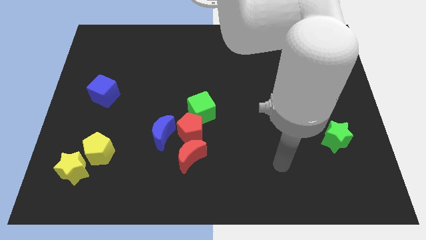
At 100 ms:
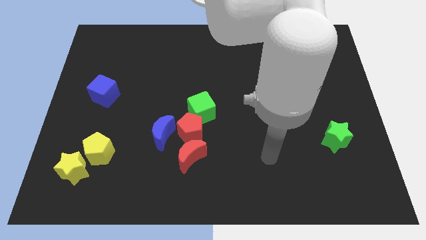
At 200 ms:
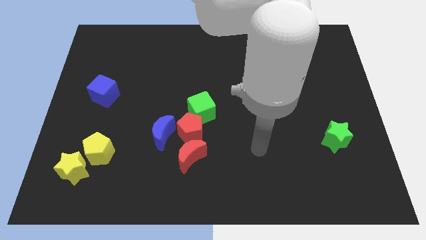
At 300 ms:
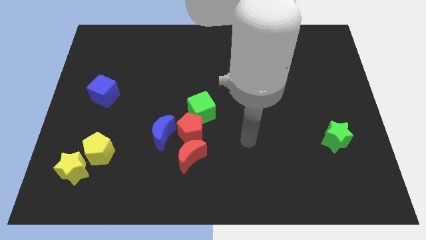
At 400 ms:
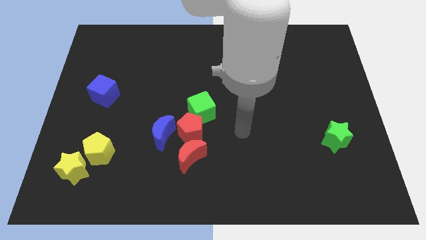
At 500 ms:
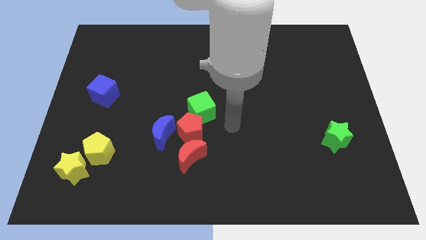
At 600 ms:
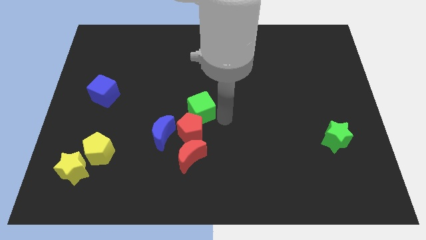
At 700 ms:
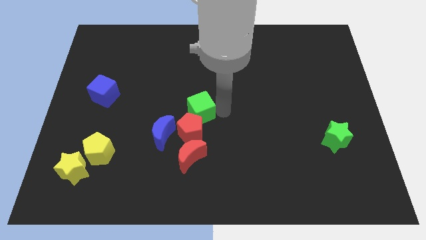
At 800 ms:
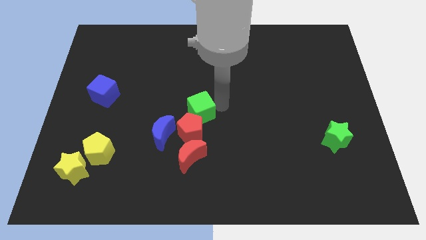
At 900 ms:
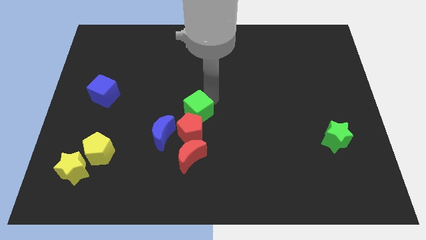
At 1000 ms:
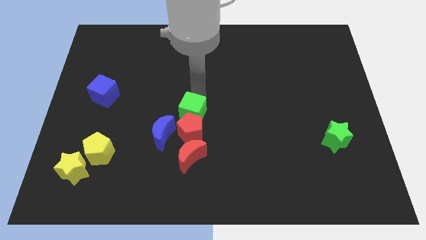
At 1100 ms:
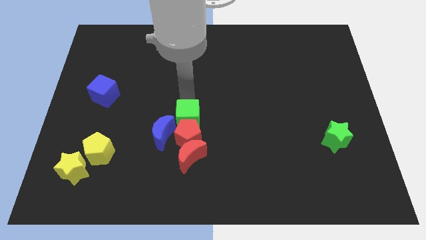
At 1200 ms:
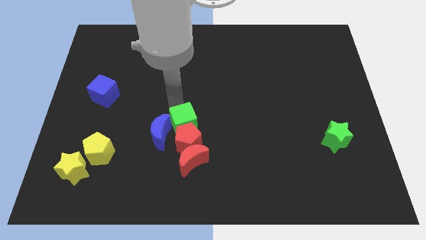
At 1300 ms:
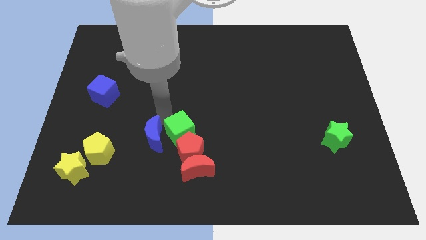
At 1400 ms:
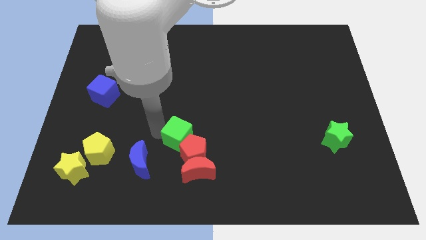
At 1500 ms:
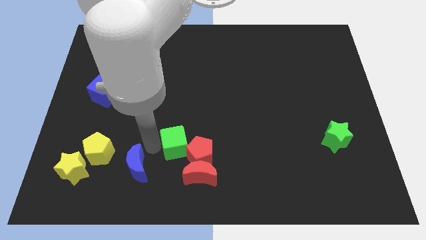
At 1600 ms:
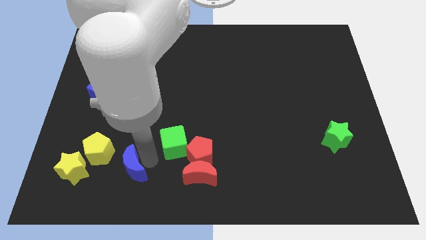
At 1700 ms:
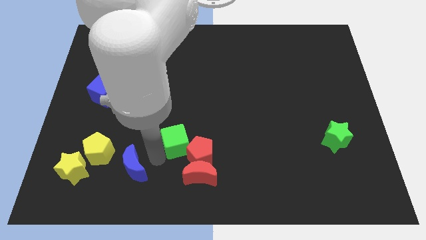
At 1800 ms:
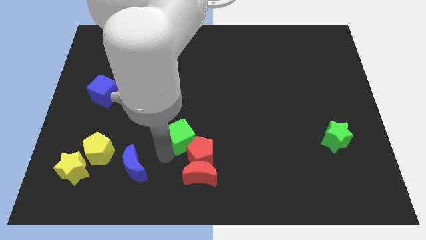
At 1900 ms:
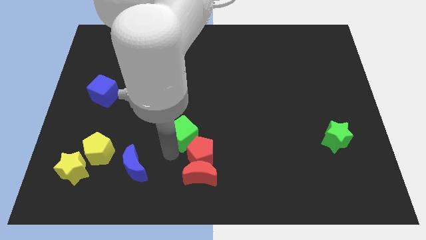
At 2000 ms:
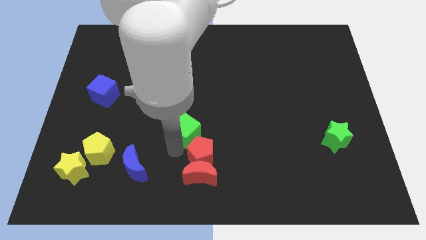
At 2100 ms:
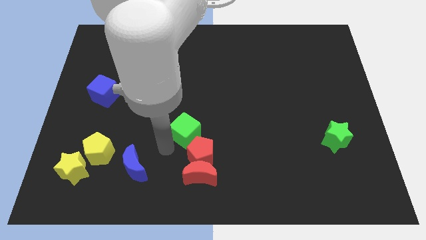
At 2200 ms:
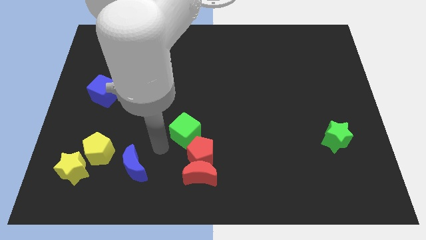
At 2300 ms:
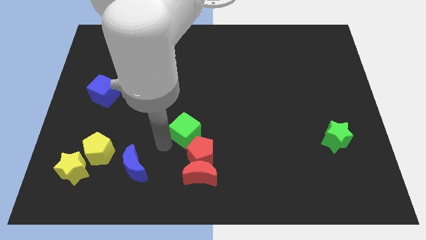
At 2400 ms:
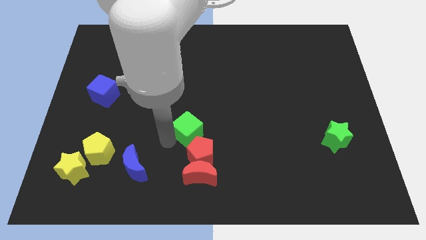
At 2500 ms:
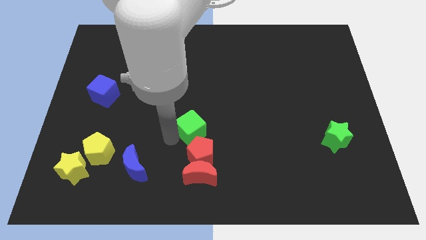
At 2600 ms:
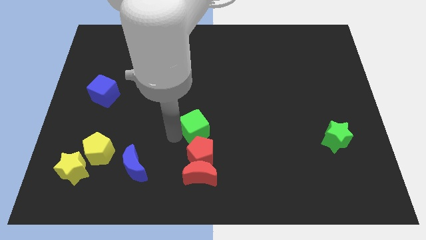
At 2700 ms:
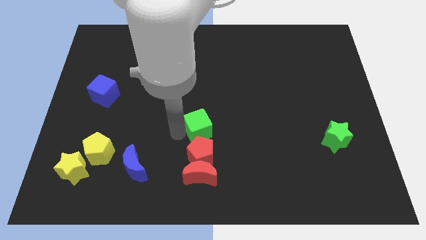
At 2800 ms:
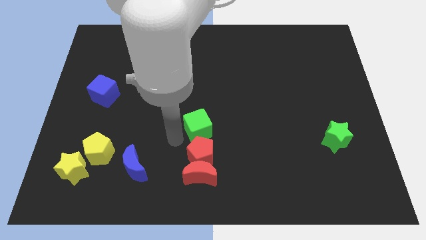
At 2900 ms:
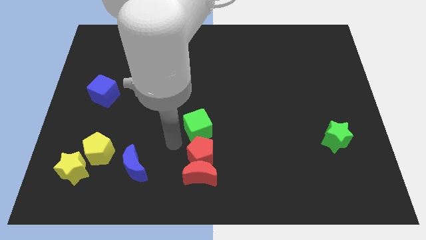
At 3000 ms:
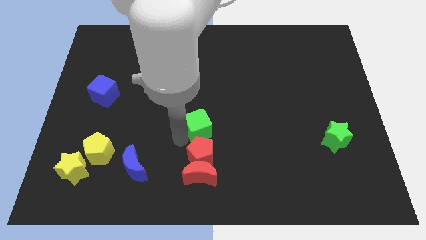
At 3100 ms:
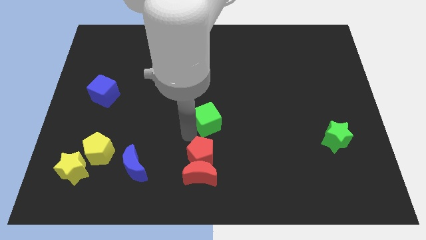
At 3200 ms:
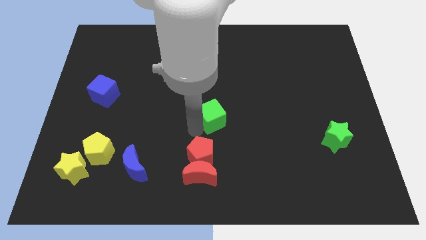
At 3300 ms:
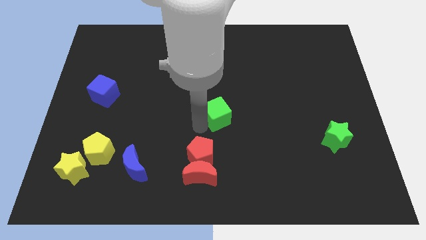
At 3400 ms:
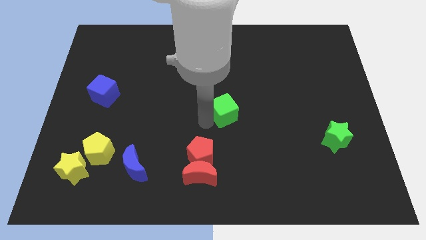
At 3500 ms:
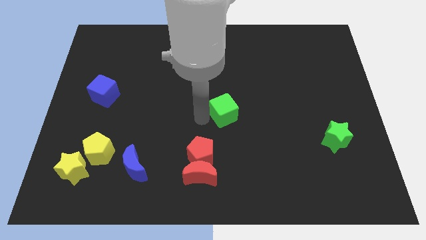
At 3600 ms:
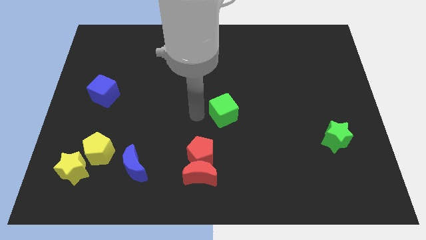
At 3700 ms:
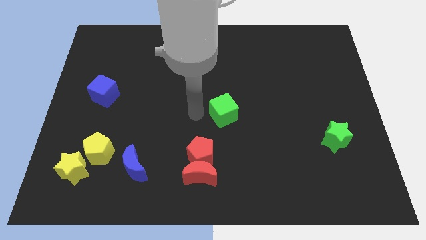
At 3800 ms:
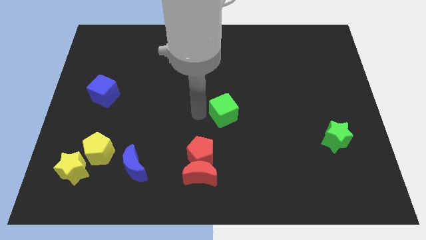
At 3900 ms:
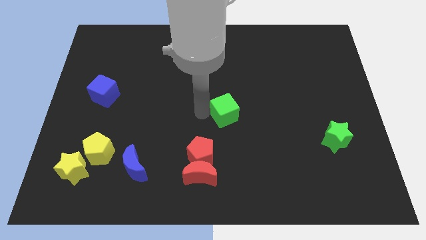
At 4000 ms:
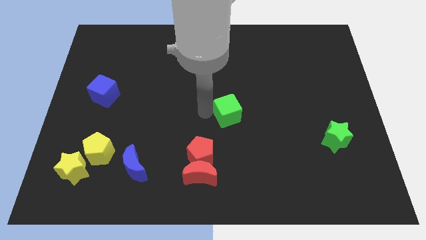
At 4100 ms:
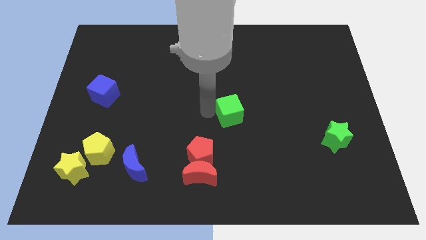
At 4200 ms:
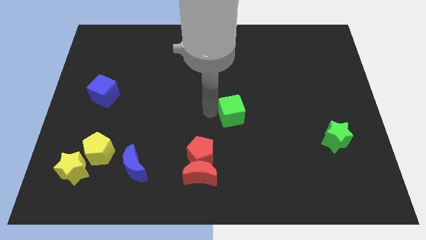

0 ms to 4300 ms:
move the green cube a little to the right

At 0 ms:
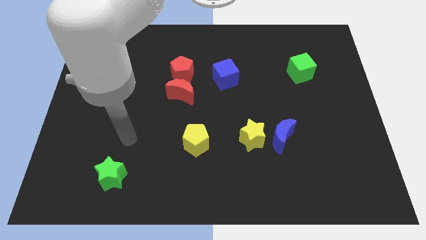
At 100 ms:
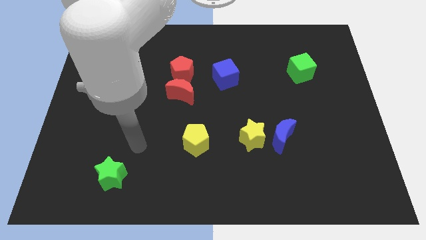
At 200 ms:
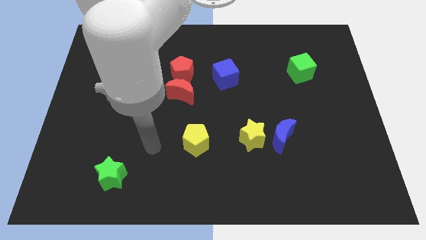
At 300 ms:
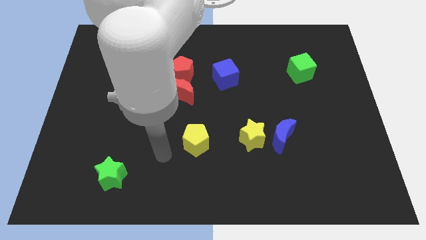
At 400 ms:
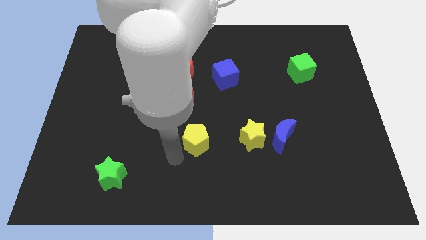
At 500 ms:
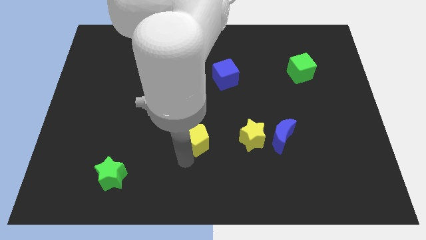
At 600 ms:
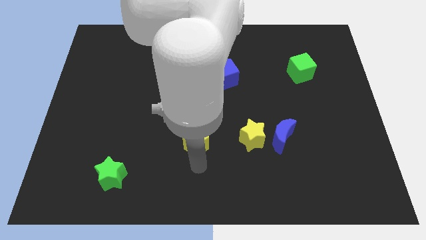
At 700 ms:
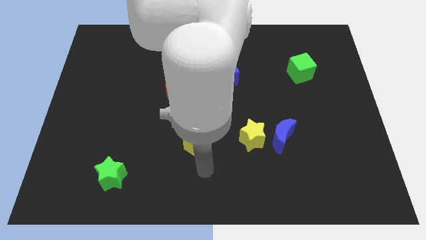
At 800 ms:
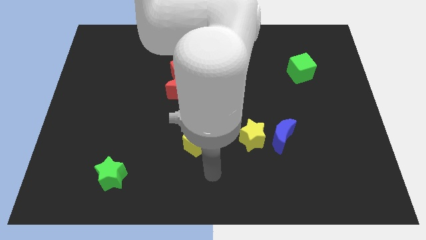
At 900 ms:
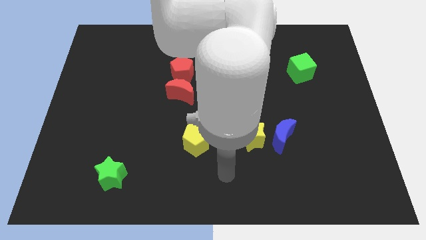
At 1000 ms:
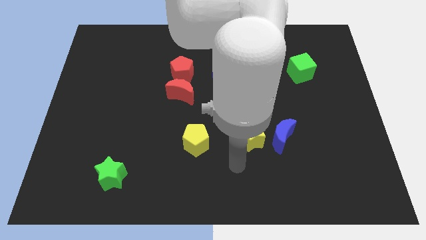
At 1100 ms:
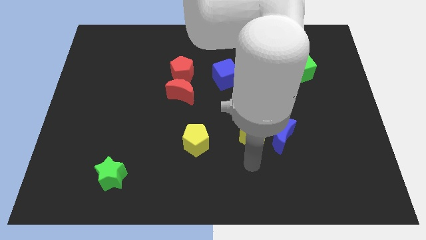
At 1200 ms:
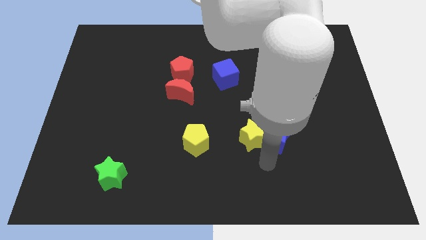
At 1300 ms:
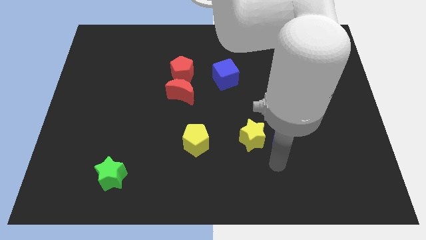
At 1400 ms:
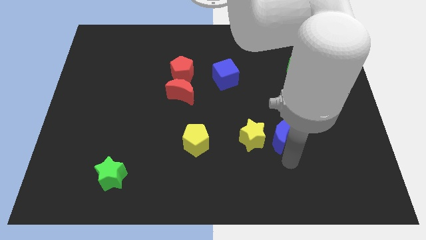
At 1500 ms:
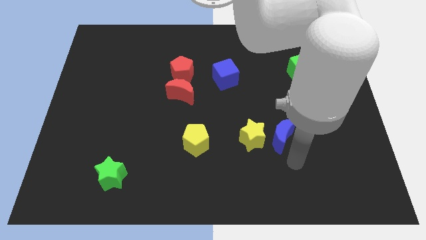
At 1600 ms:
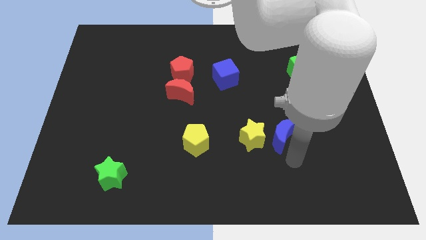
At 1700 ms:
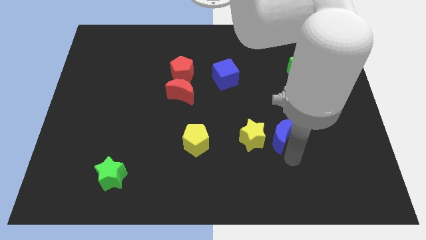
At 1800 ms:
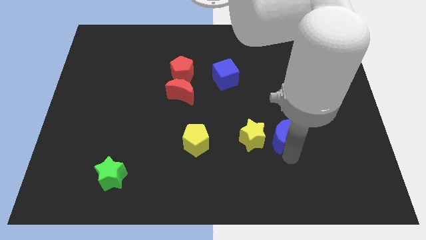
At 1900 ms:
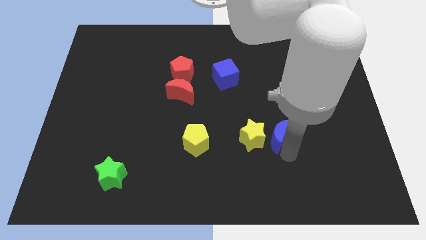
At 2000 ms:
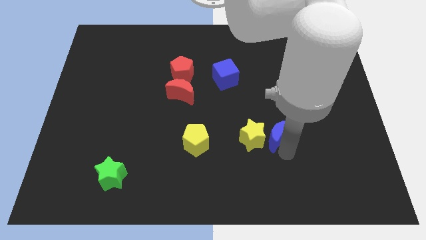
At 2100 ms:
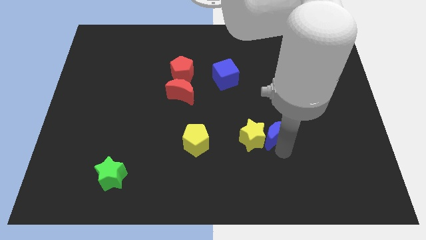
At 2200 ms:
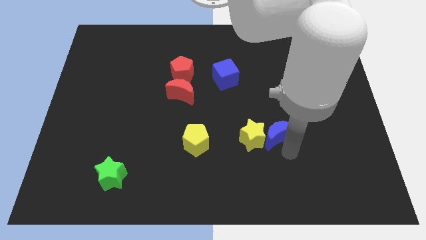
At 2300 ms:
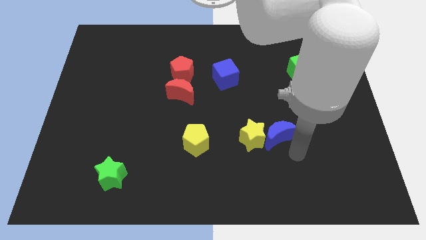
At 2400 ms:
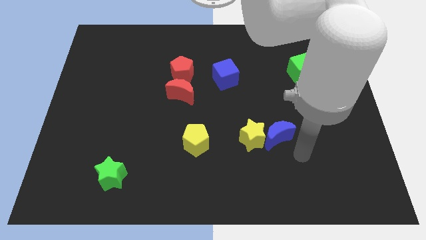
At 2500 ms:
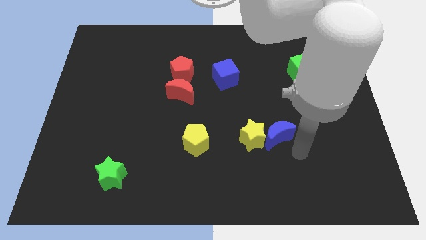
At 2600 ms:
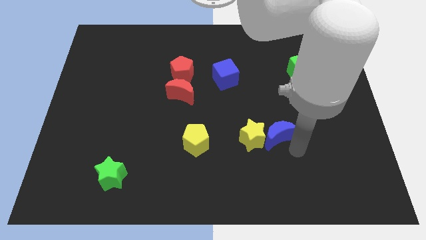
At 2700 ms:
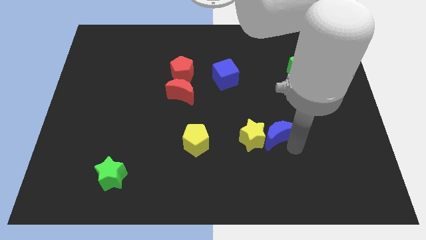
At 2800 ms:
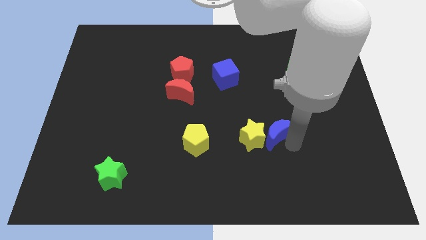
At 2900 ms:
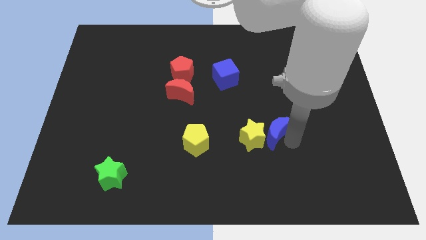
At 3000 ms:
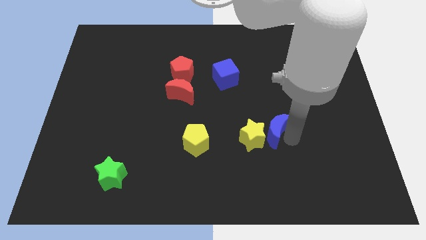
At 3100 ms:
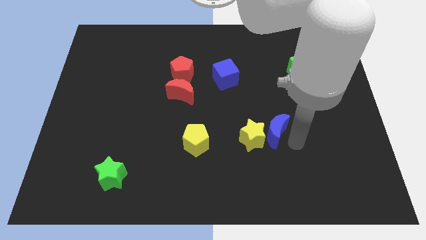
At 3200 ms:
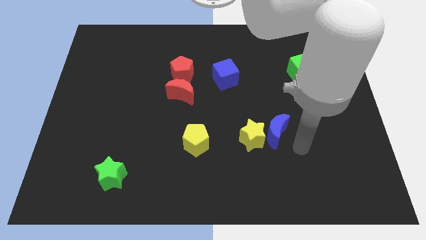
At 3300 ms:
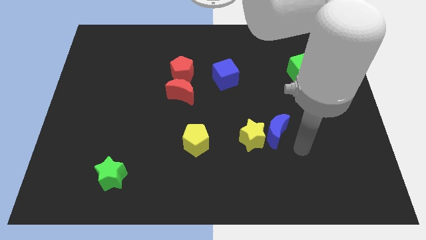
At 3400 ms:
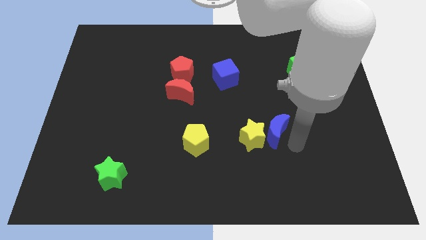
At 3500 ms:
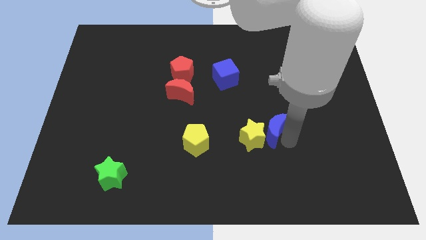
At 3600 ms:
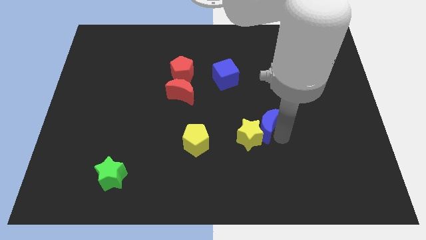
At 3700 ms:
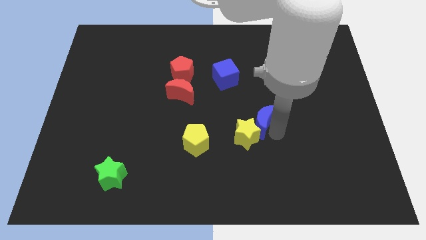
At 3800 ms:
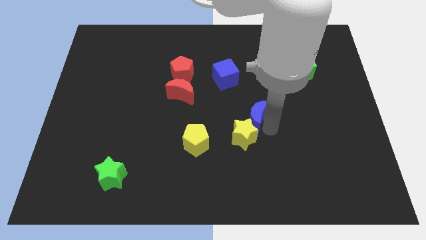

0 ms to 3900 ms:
slide the blue moon a little bit up and to the left
